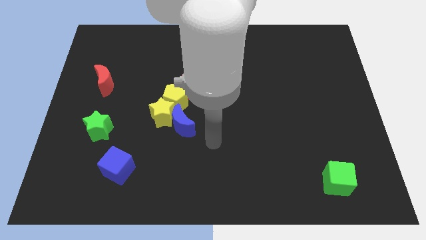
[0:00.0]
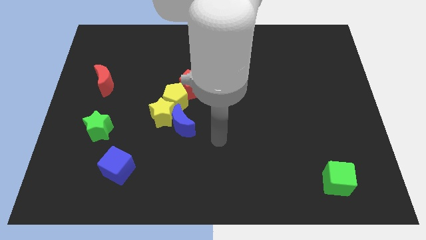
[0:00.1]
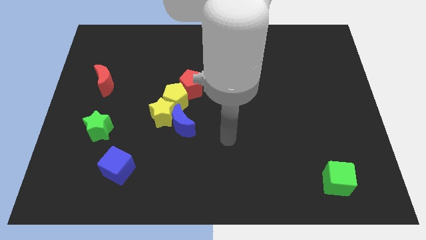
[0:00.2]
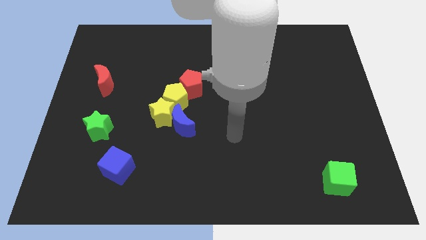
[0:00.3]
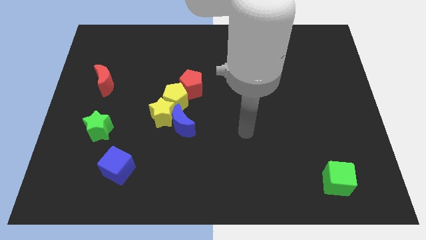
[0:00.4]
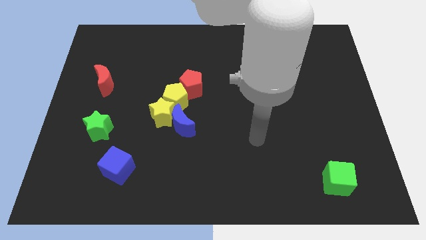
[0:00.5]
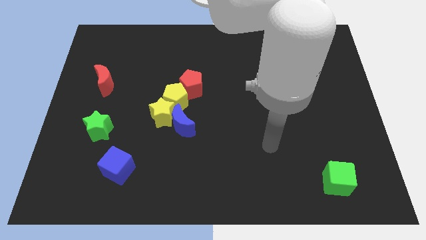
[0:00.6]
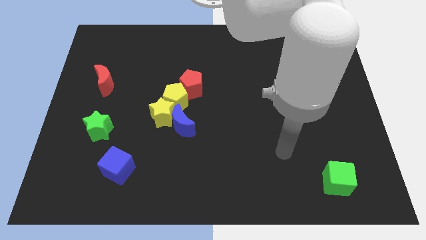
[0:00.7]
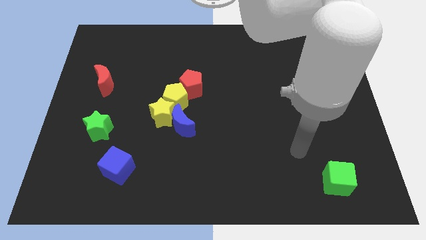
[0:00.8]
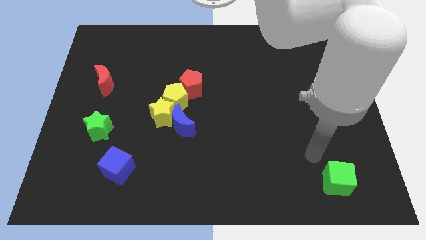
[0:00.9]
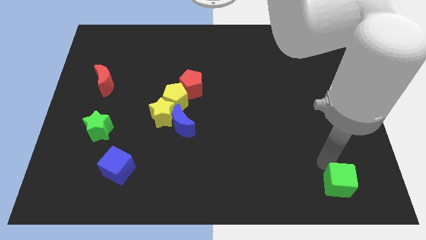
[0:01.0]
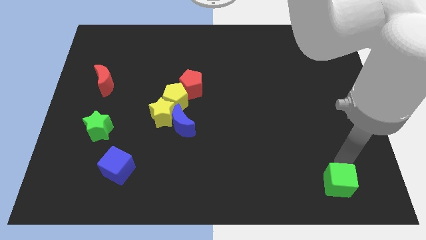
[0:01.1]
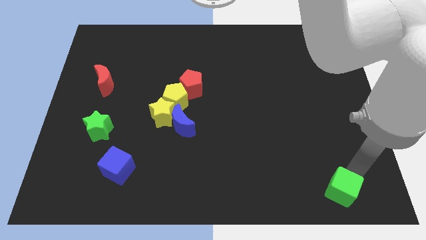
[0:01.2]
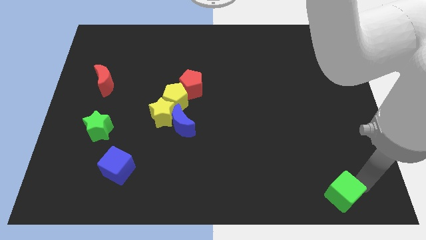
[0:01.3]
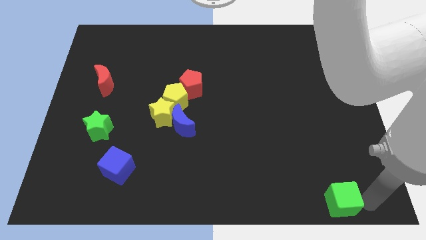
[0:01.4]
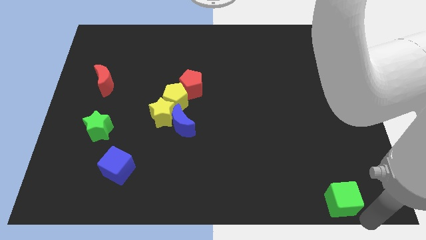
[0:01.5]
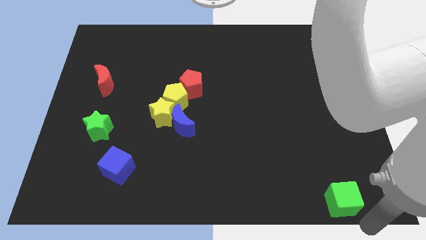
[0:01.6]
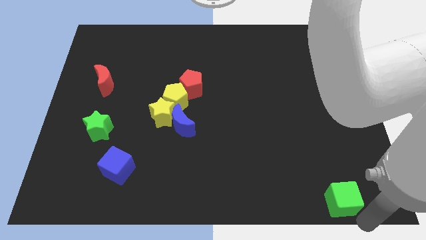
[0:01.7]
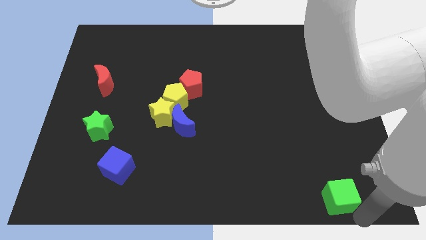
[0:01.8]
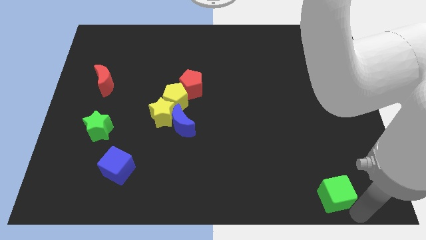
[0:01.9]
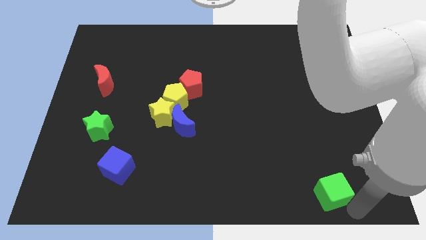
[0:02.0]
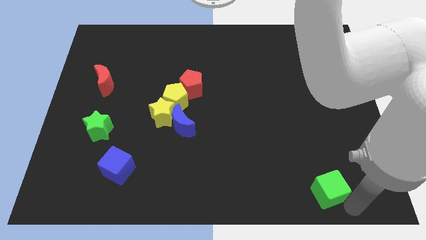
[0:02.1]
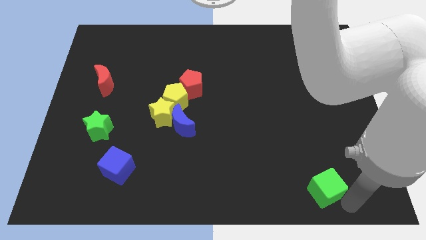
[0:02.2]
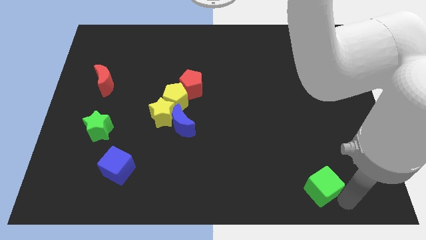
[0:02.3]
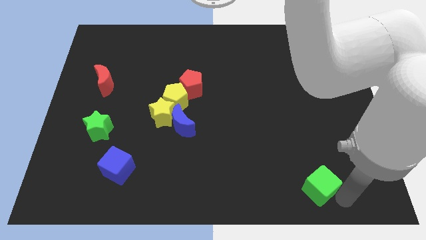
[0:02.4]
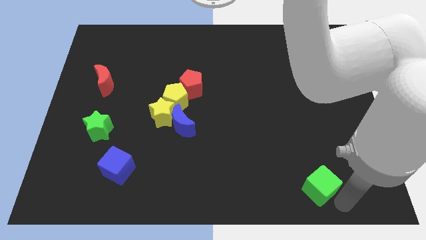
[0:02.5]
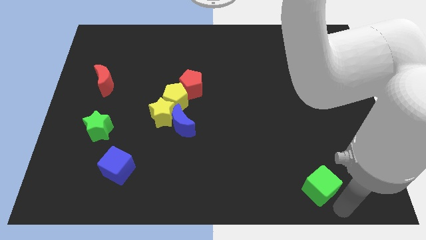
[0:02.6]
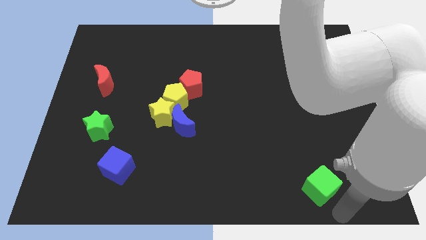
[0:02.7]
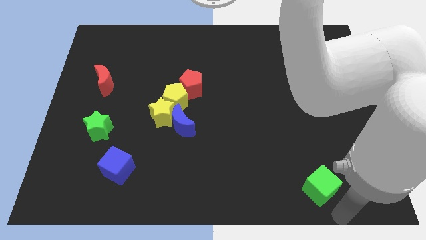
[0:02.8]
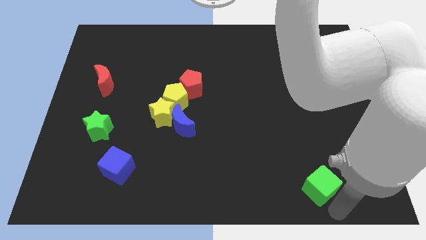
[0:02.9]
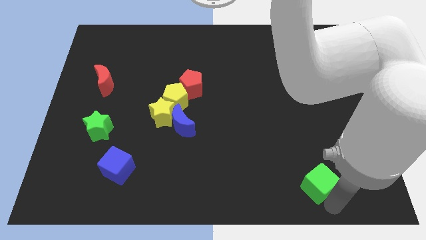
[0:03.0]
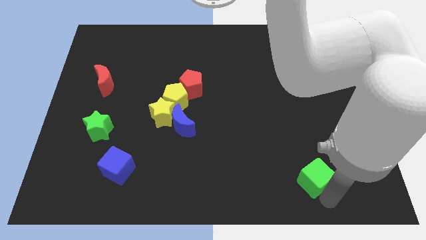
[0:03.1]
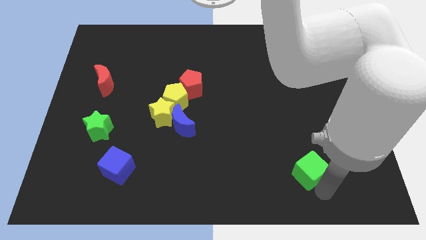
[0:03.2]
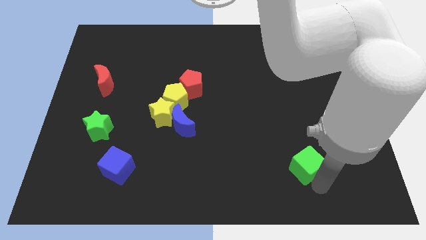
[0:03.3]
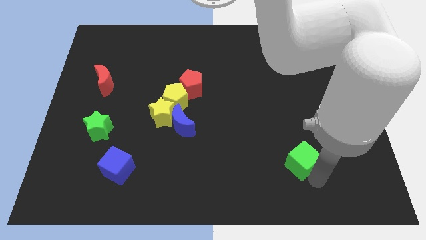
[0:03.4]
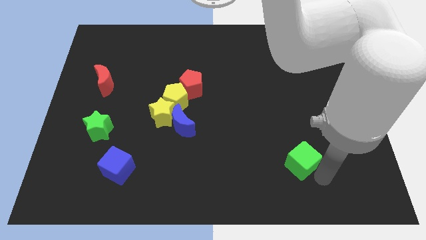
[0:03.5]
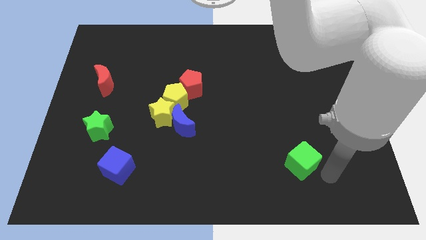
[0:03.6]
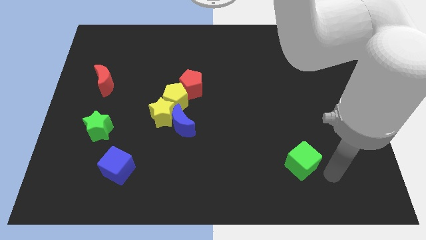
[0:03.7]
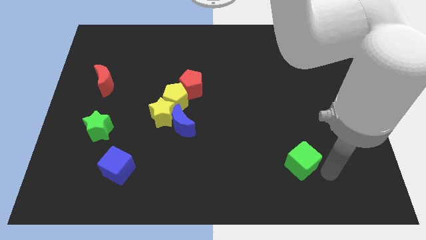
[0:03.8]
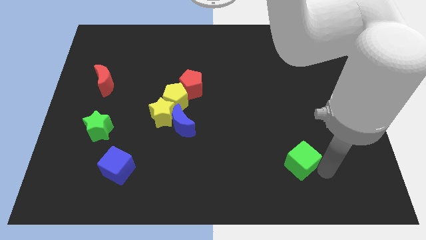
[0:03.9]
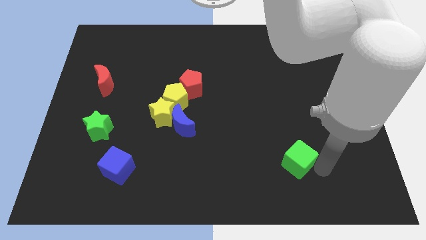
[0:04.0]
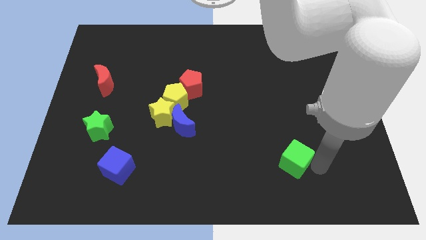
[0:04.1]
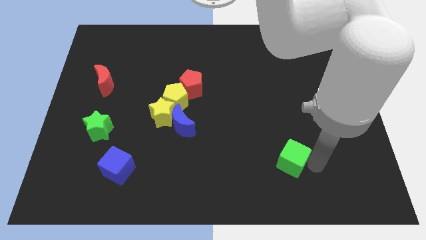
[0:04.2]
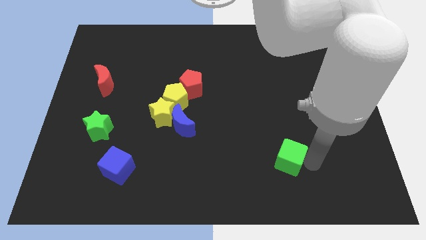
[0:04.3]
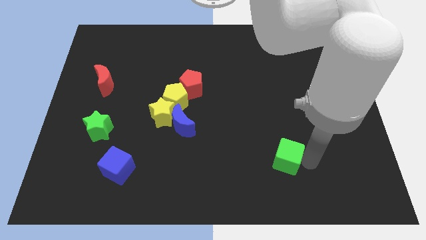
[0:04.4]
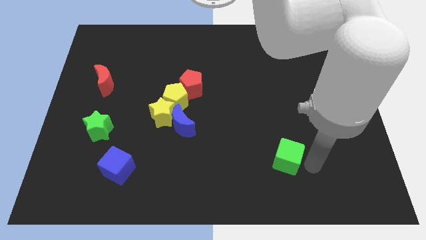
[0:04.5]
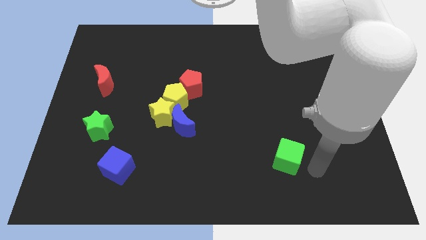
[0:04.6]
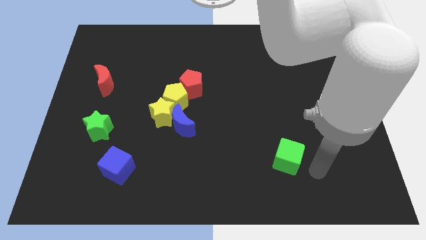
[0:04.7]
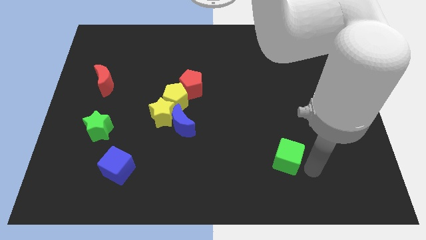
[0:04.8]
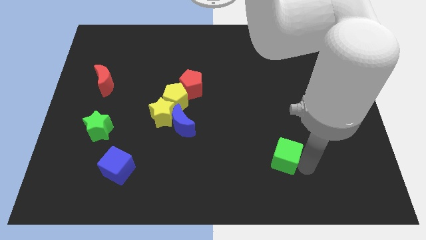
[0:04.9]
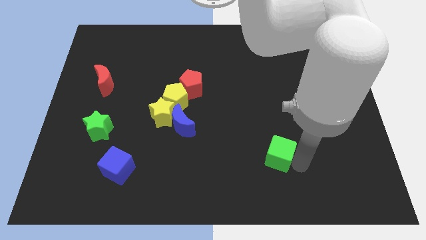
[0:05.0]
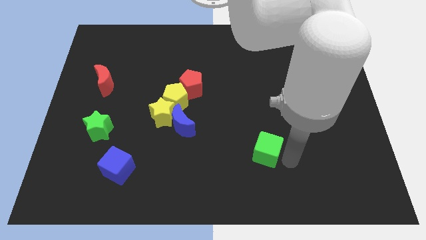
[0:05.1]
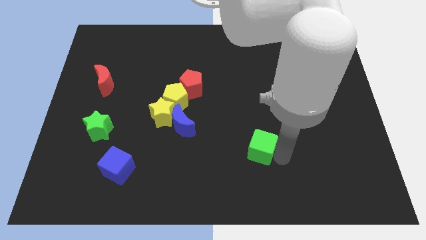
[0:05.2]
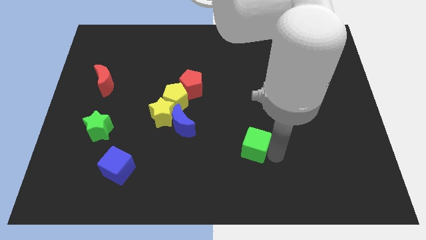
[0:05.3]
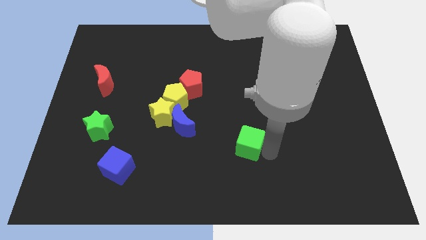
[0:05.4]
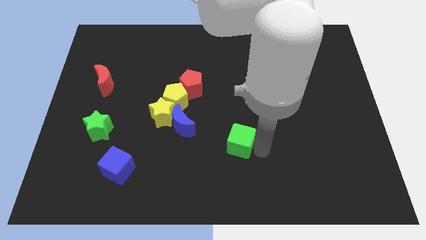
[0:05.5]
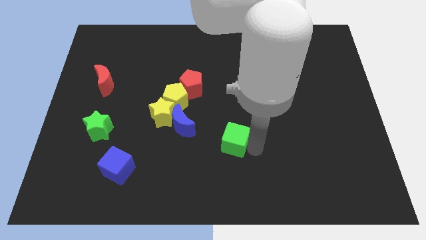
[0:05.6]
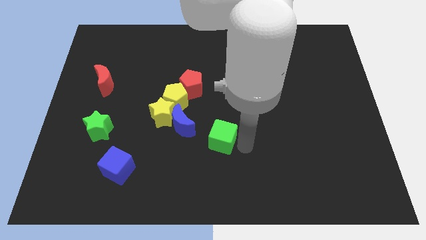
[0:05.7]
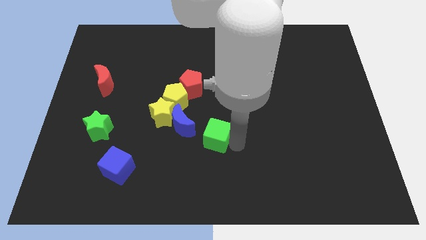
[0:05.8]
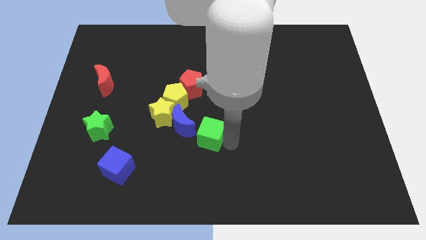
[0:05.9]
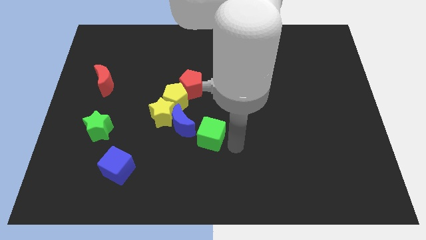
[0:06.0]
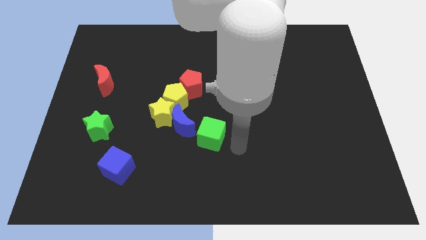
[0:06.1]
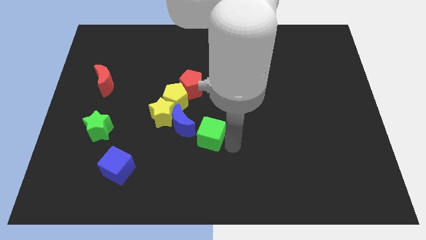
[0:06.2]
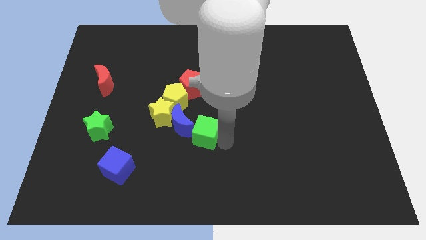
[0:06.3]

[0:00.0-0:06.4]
move the green cube towards the blue moon

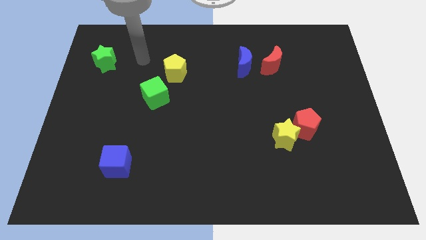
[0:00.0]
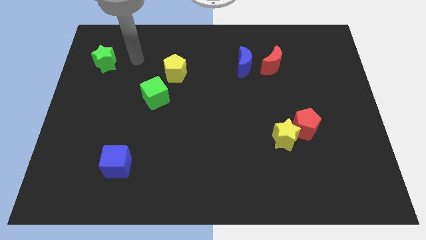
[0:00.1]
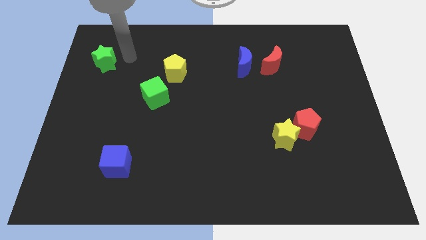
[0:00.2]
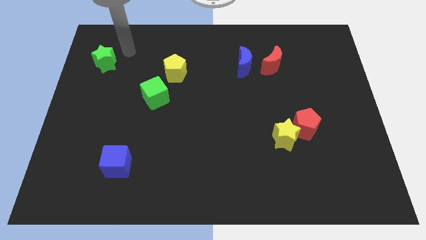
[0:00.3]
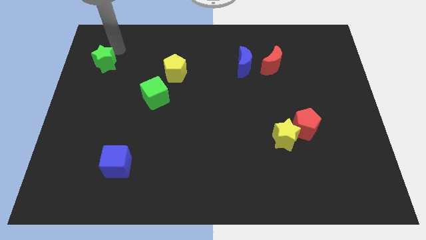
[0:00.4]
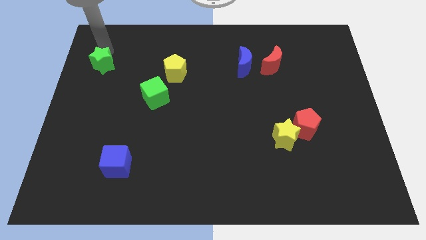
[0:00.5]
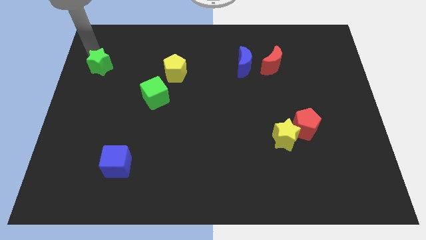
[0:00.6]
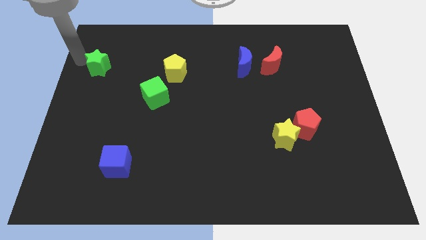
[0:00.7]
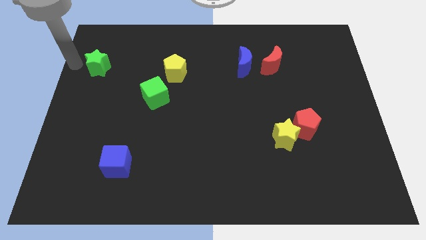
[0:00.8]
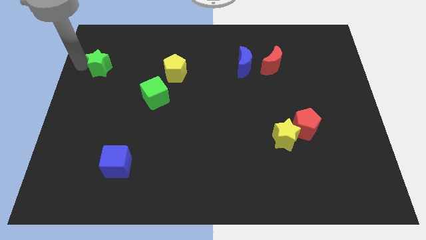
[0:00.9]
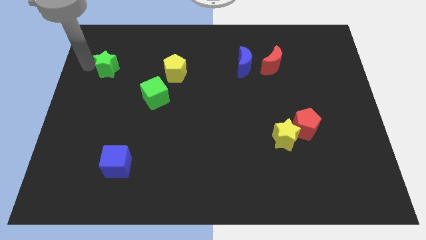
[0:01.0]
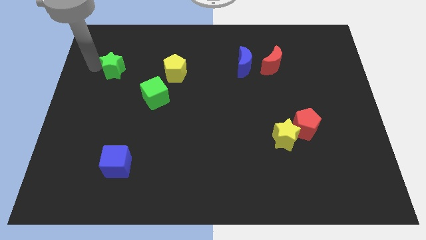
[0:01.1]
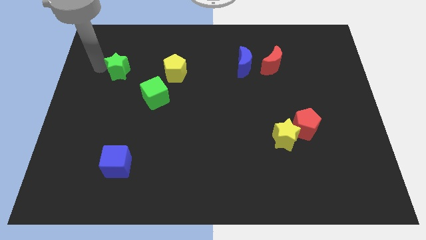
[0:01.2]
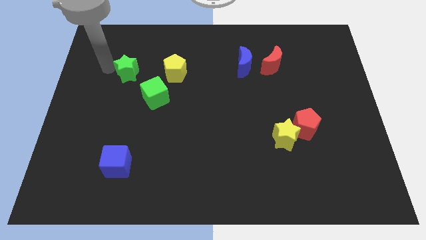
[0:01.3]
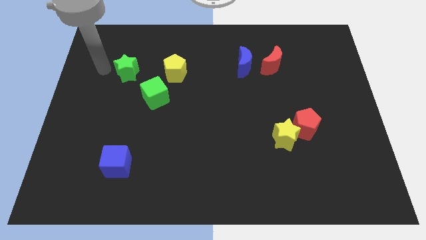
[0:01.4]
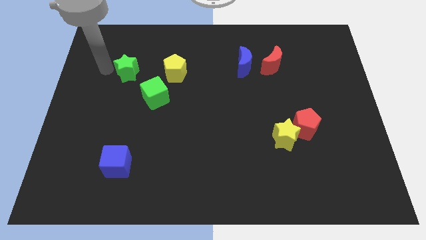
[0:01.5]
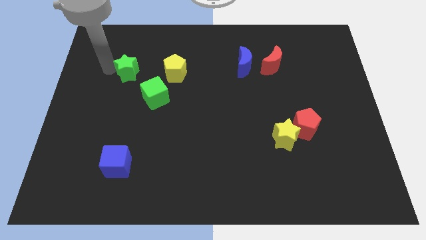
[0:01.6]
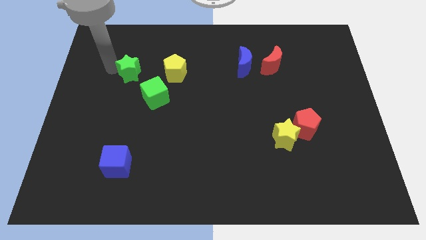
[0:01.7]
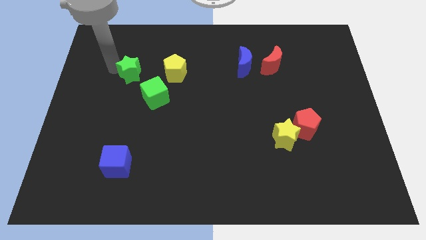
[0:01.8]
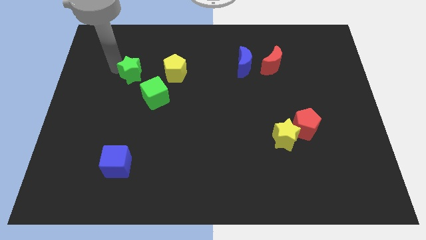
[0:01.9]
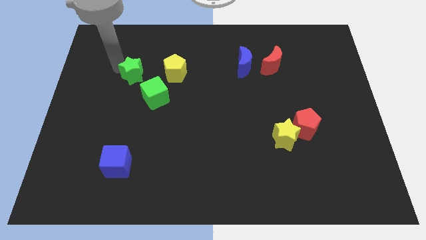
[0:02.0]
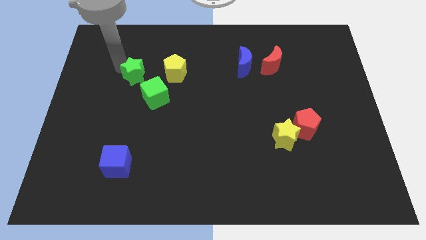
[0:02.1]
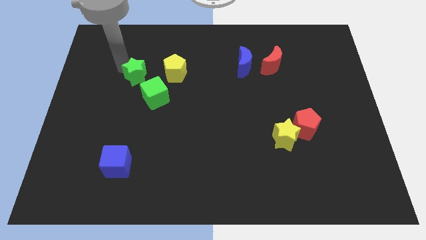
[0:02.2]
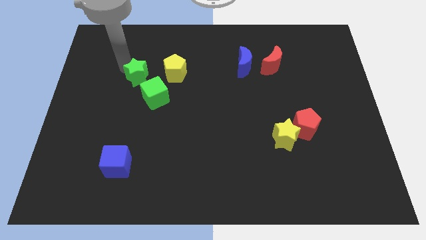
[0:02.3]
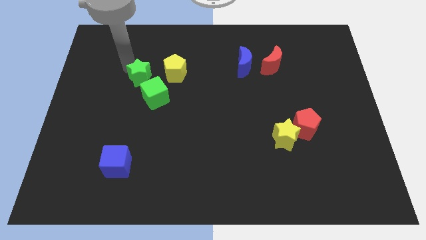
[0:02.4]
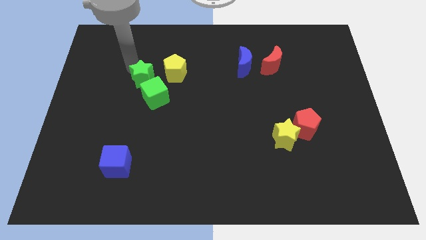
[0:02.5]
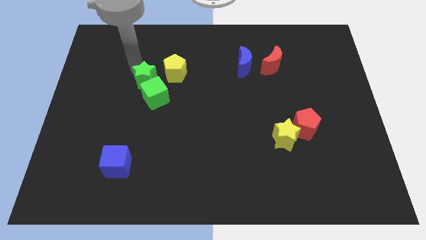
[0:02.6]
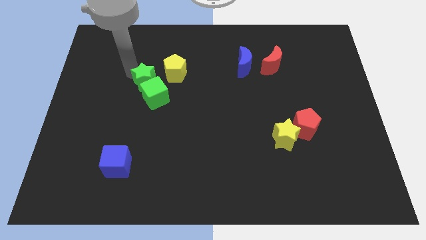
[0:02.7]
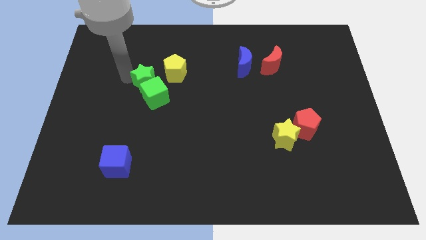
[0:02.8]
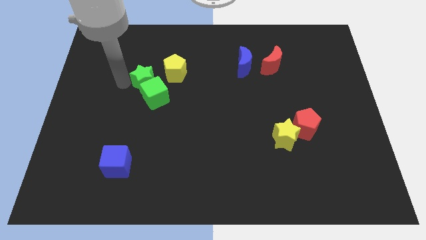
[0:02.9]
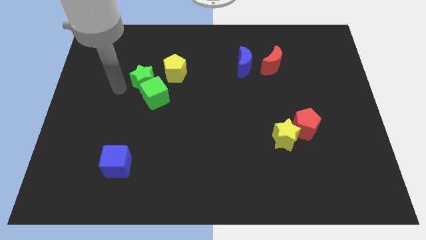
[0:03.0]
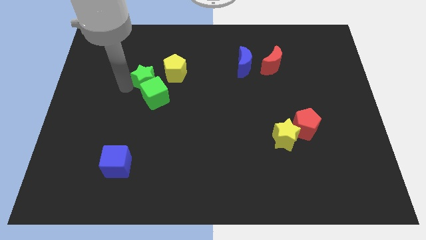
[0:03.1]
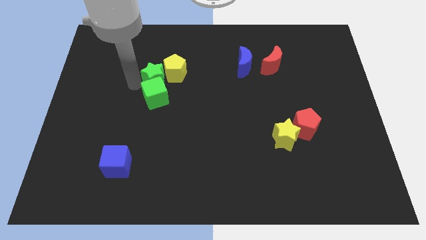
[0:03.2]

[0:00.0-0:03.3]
push the green star close to the yellow pentagon
